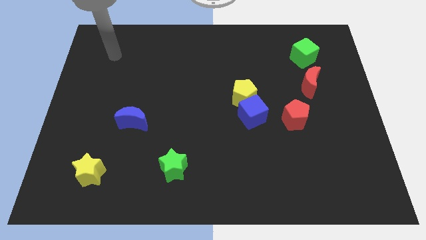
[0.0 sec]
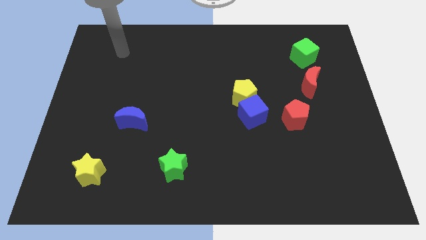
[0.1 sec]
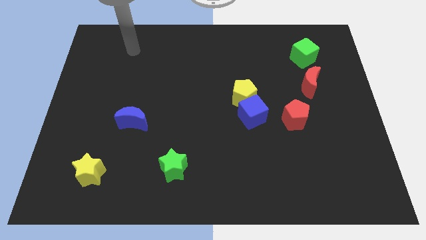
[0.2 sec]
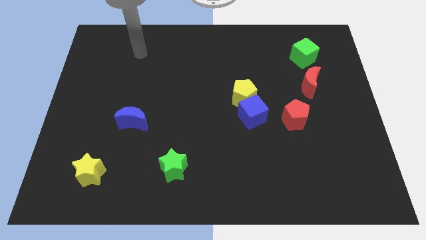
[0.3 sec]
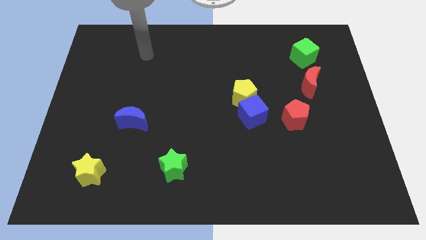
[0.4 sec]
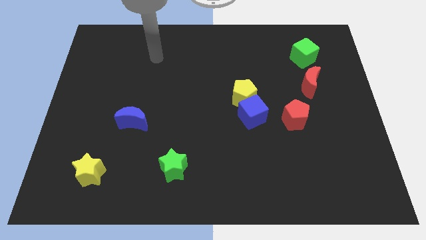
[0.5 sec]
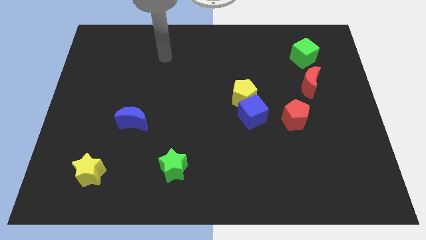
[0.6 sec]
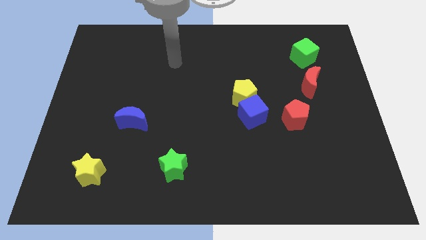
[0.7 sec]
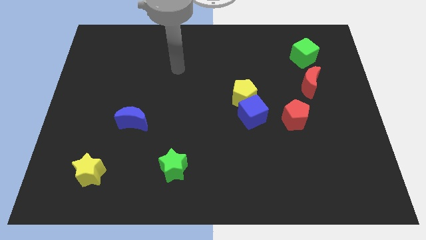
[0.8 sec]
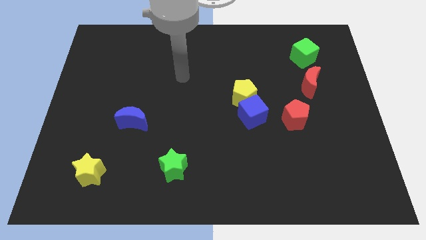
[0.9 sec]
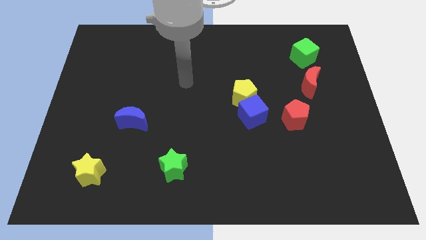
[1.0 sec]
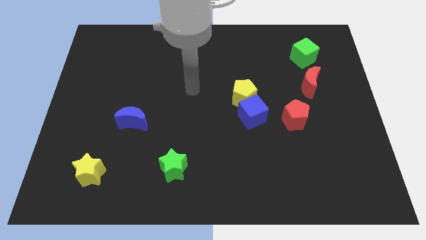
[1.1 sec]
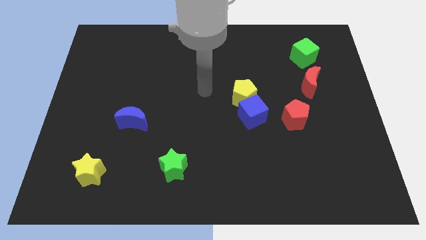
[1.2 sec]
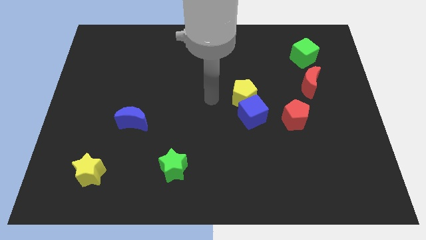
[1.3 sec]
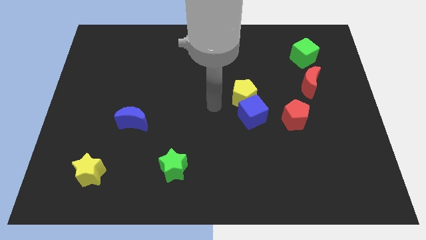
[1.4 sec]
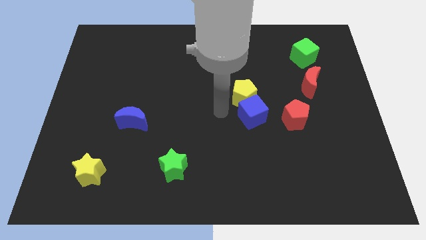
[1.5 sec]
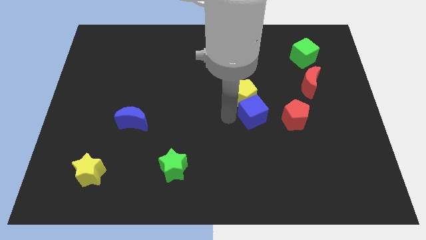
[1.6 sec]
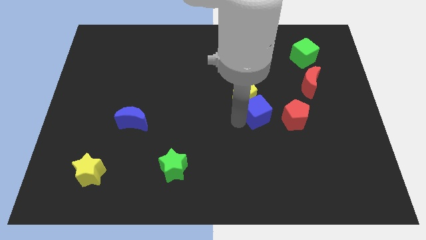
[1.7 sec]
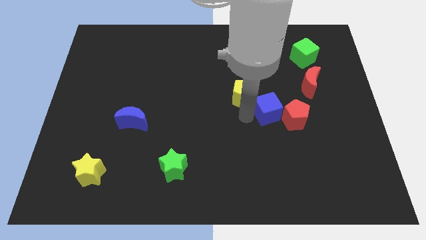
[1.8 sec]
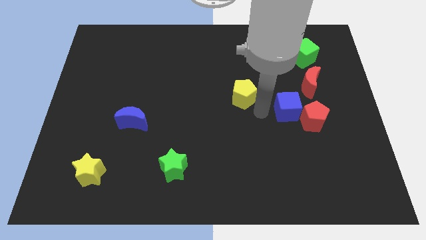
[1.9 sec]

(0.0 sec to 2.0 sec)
move the yellow pentagon away from the blue cube

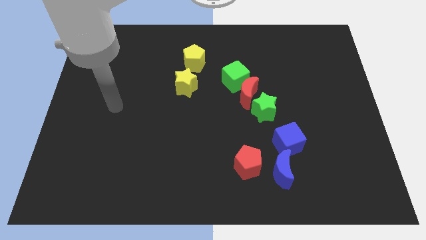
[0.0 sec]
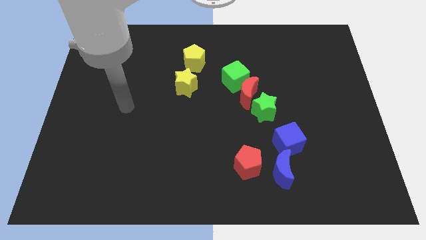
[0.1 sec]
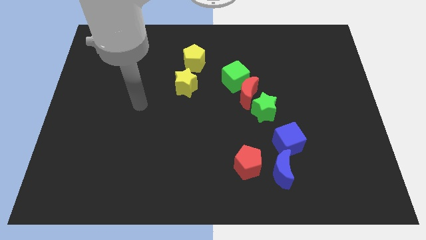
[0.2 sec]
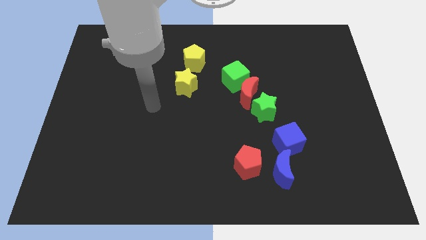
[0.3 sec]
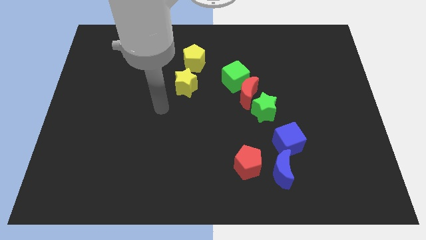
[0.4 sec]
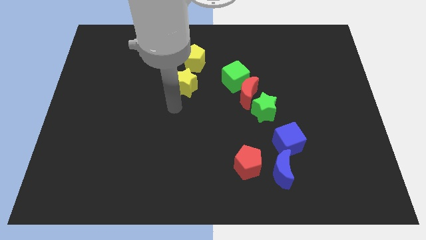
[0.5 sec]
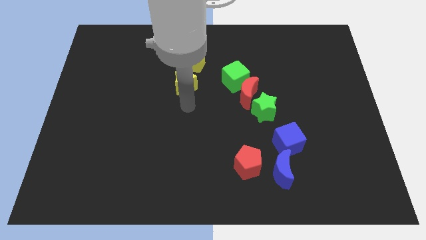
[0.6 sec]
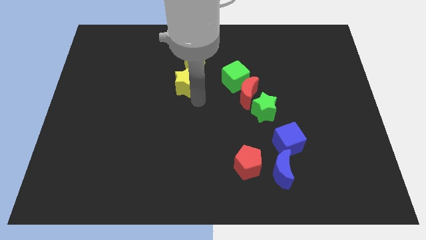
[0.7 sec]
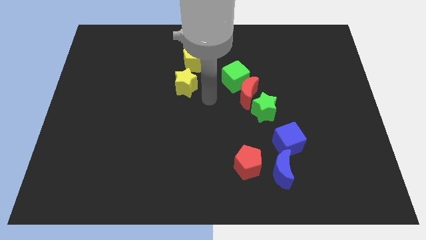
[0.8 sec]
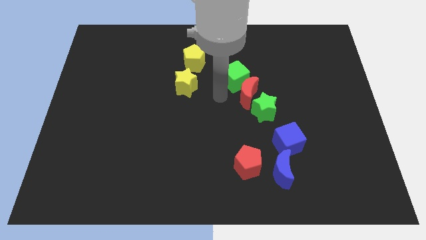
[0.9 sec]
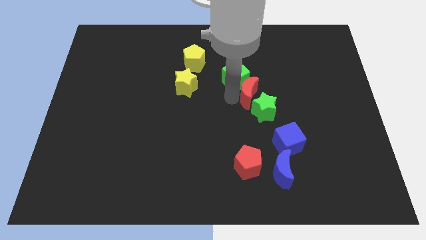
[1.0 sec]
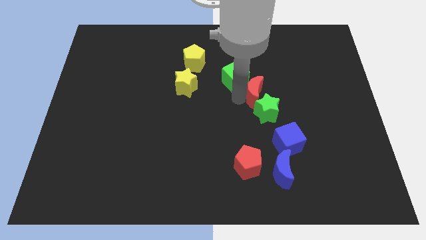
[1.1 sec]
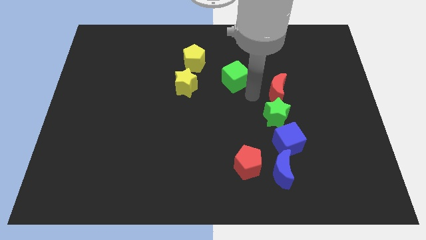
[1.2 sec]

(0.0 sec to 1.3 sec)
move the green cube away from the red moon

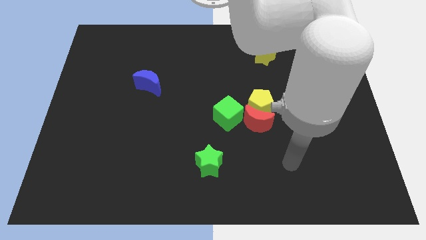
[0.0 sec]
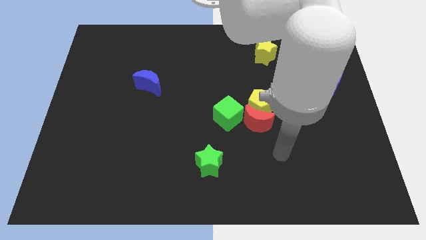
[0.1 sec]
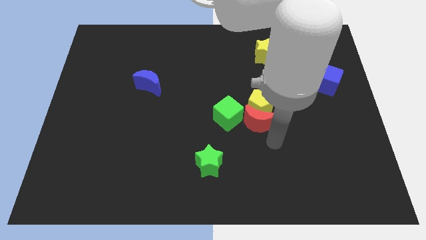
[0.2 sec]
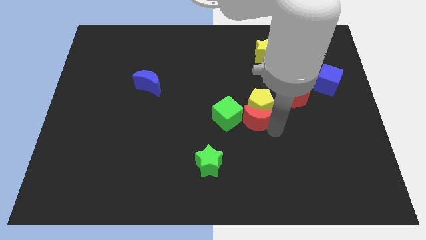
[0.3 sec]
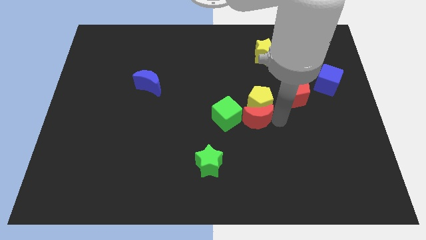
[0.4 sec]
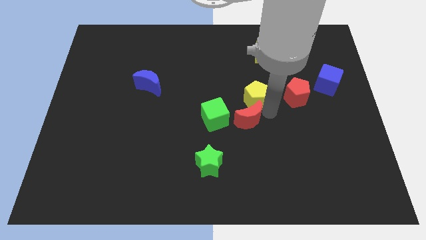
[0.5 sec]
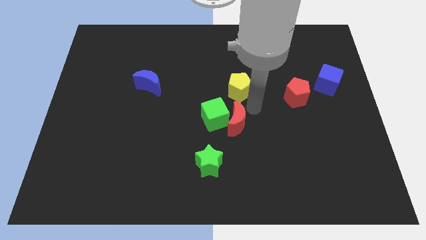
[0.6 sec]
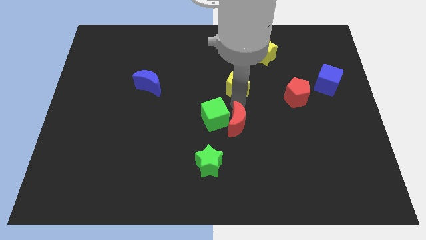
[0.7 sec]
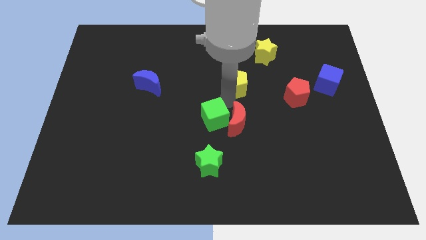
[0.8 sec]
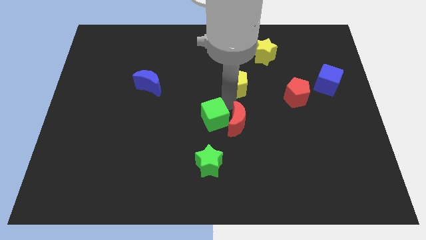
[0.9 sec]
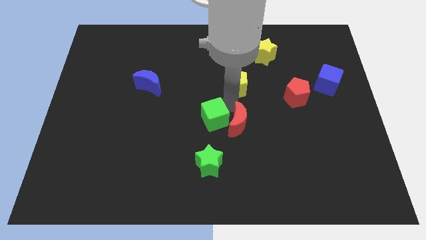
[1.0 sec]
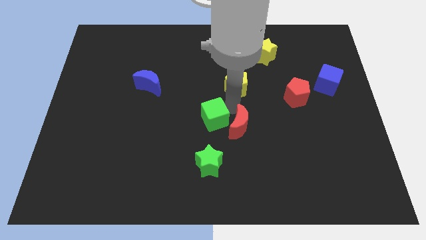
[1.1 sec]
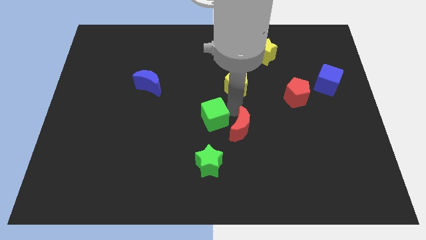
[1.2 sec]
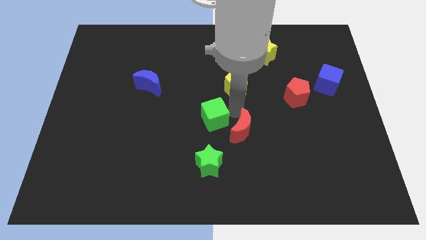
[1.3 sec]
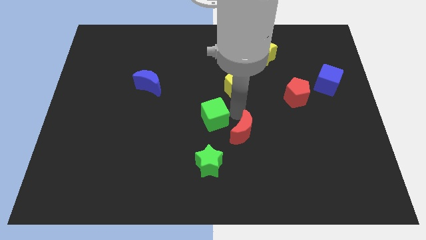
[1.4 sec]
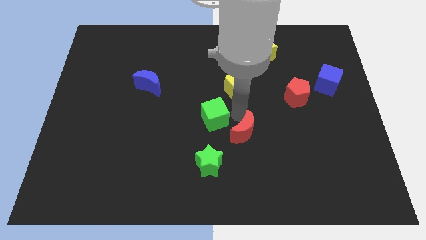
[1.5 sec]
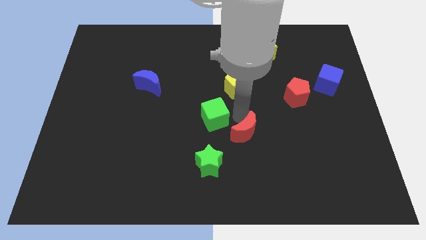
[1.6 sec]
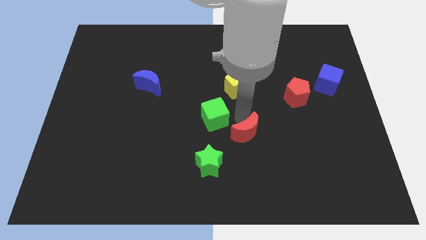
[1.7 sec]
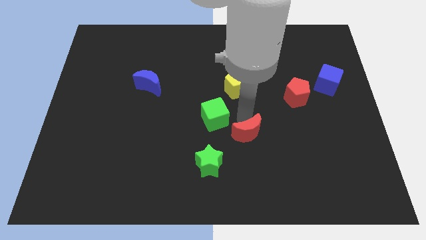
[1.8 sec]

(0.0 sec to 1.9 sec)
separate the red moon from the yellow pentagon and green cube

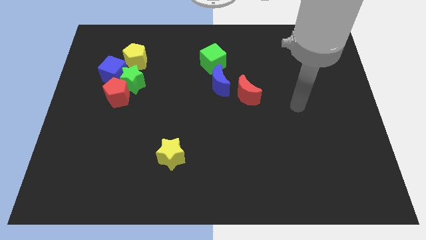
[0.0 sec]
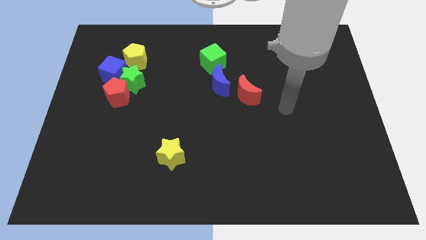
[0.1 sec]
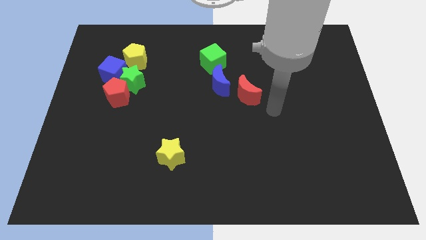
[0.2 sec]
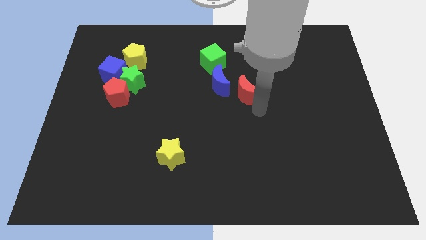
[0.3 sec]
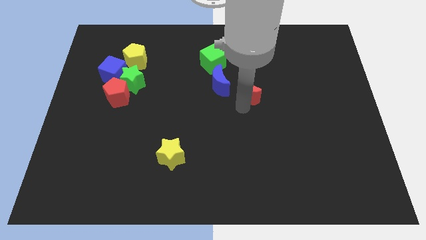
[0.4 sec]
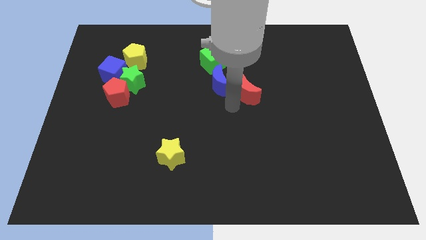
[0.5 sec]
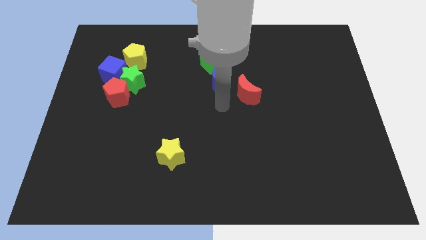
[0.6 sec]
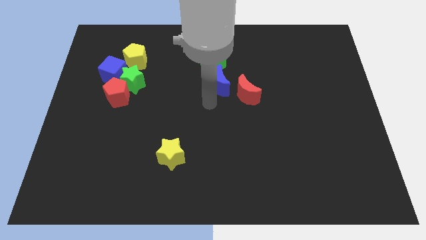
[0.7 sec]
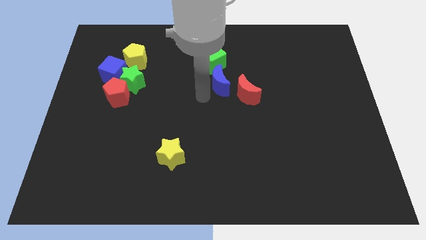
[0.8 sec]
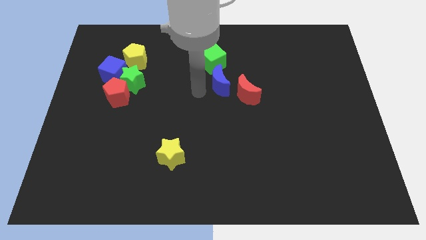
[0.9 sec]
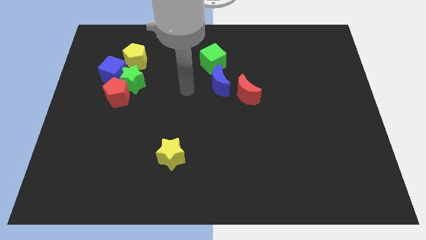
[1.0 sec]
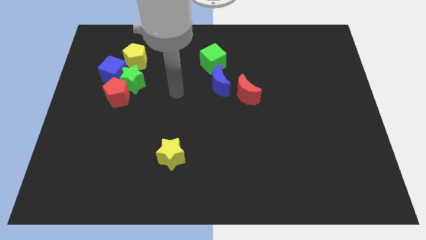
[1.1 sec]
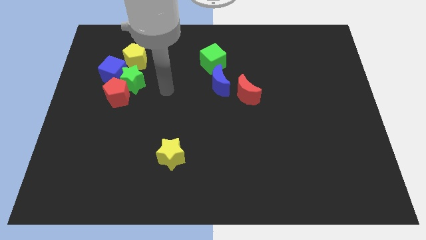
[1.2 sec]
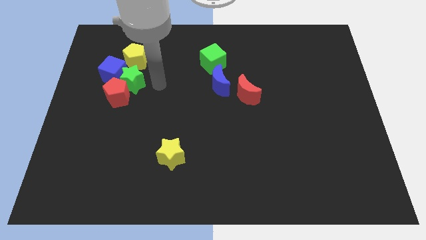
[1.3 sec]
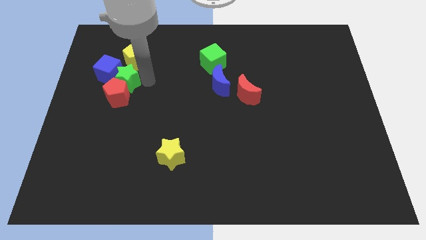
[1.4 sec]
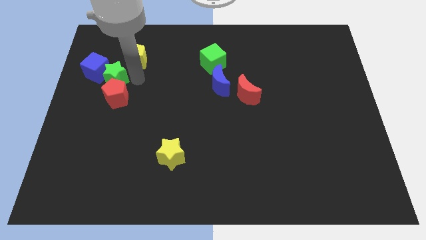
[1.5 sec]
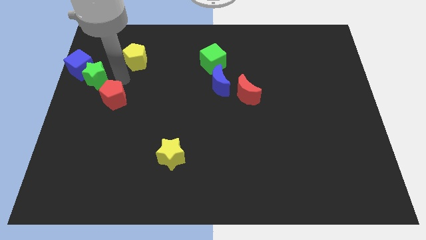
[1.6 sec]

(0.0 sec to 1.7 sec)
pull the red pentagon apart from the green star and blue cube

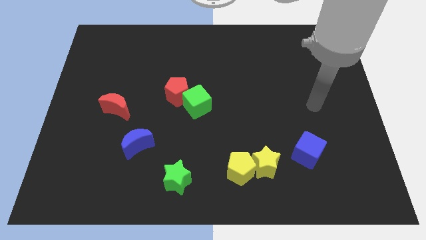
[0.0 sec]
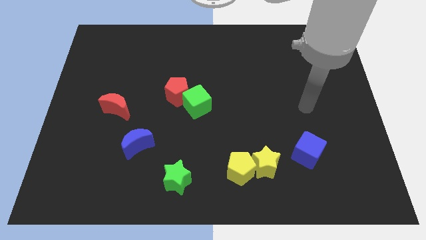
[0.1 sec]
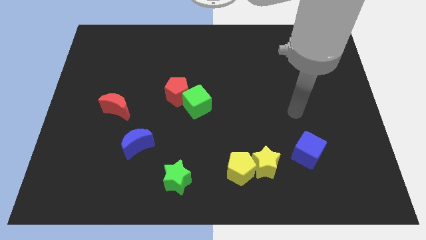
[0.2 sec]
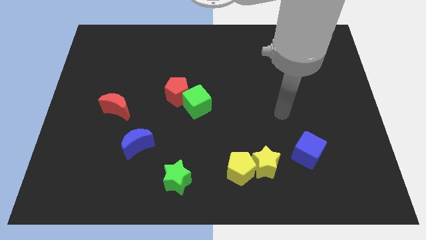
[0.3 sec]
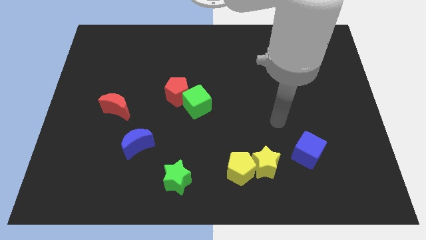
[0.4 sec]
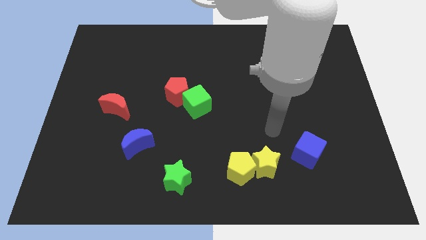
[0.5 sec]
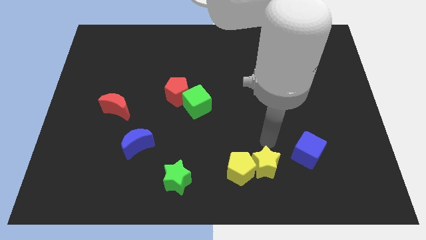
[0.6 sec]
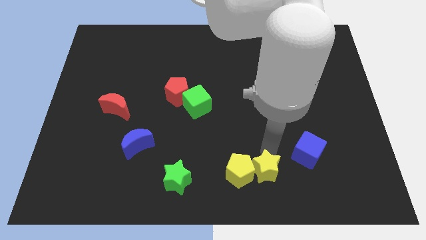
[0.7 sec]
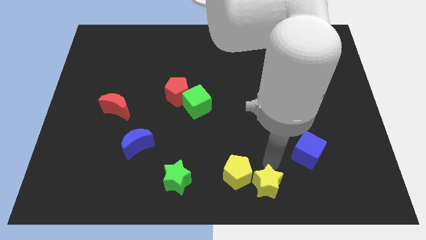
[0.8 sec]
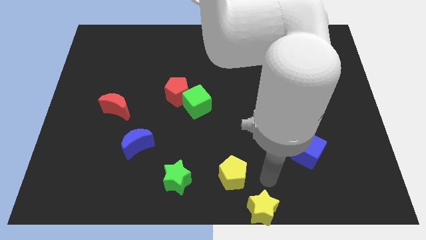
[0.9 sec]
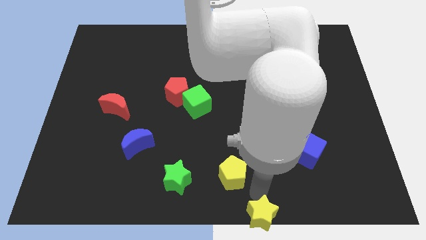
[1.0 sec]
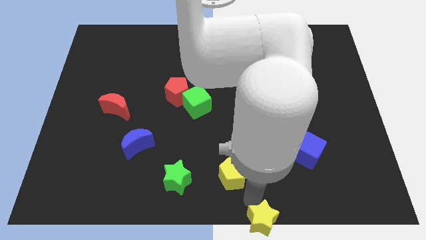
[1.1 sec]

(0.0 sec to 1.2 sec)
pull the yellow pentagon apart from the yellow star

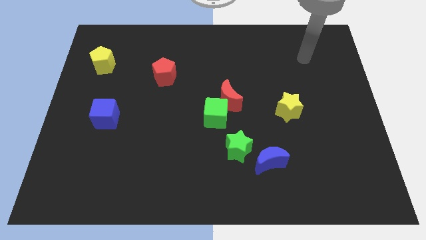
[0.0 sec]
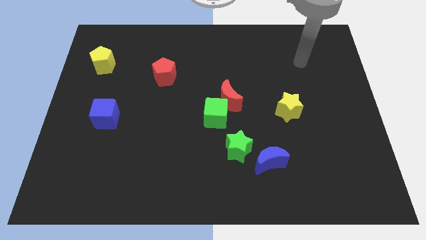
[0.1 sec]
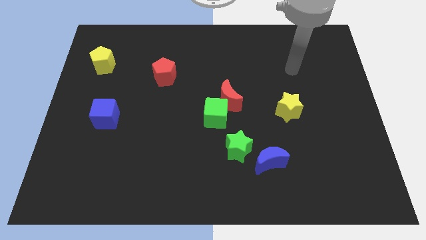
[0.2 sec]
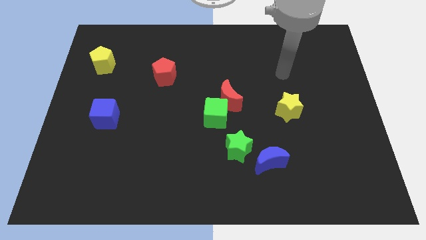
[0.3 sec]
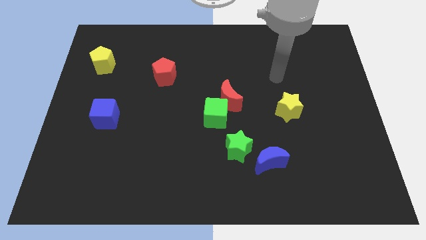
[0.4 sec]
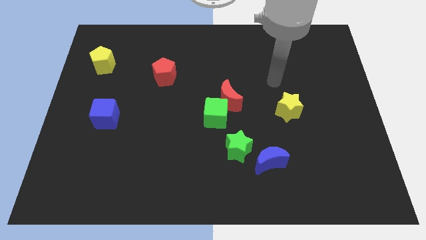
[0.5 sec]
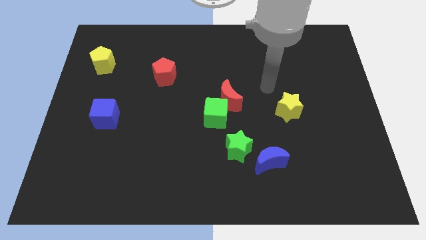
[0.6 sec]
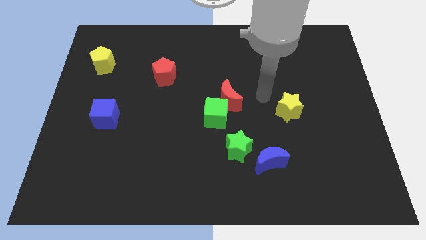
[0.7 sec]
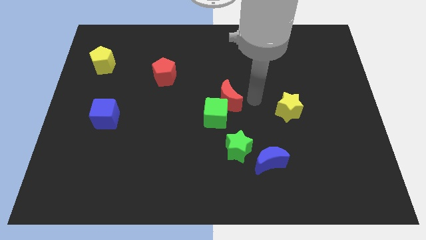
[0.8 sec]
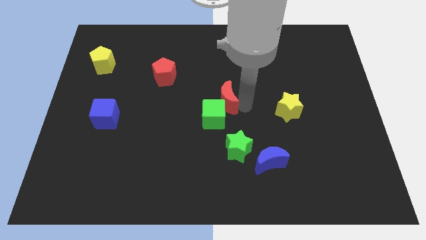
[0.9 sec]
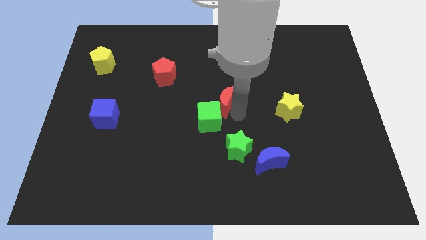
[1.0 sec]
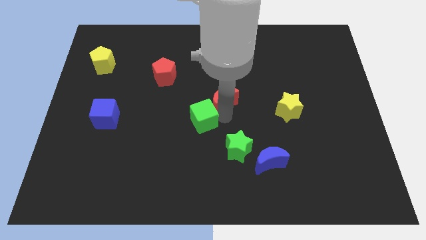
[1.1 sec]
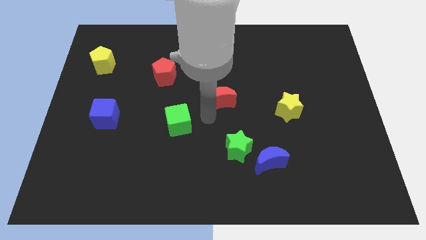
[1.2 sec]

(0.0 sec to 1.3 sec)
separate the red moon from the green cube
